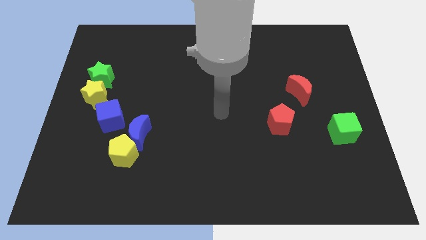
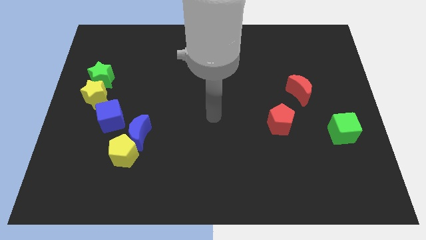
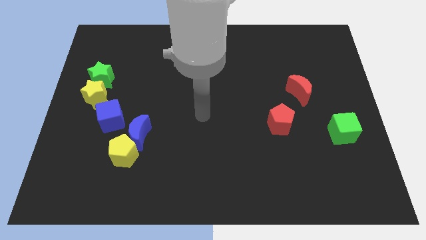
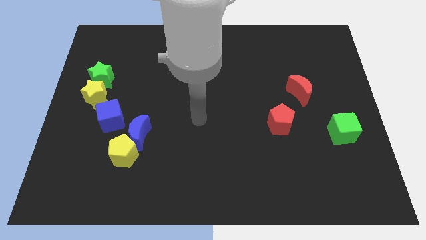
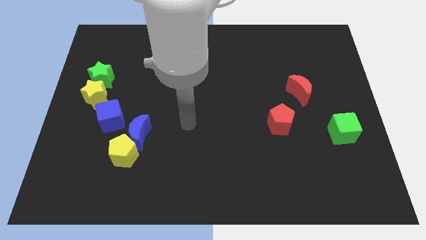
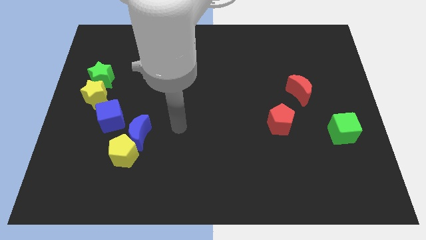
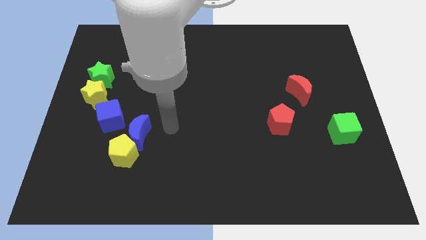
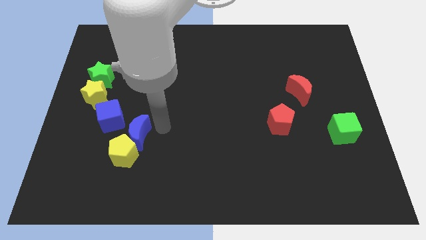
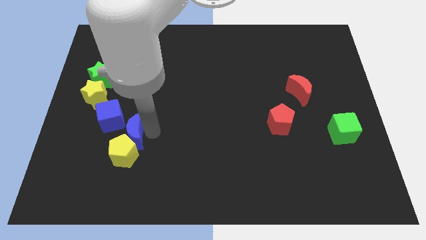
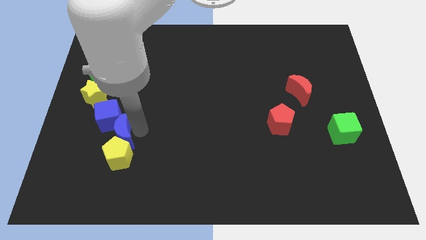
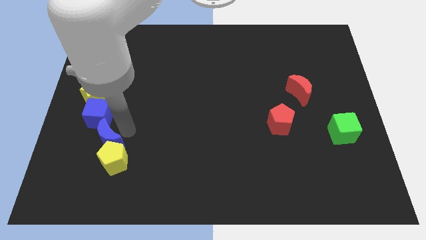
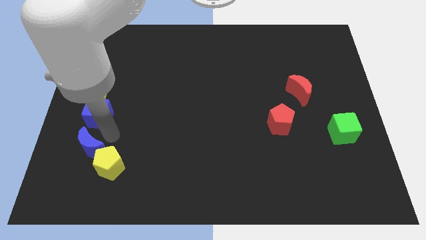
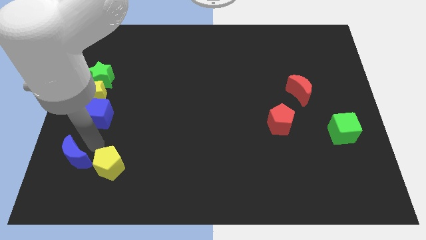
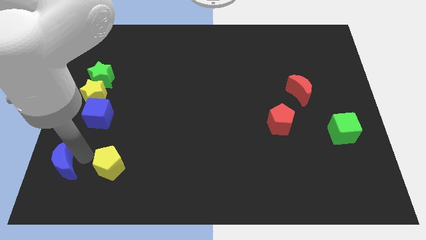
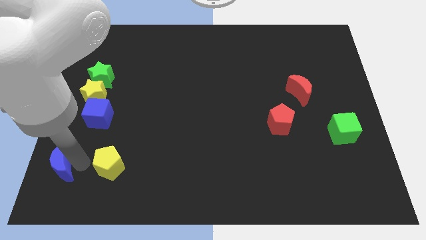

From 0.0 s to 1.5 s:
move the yellow pentagon away from the blue moon

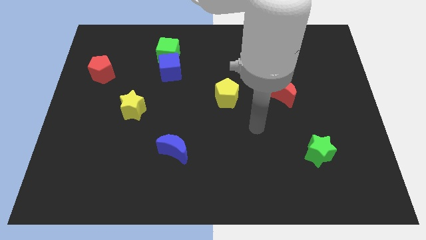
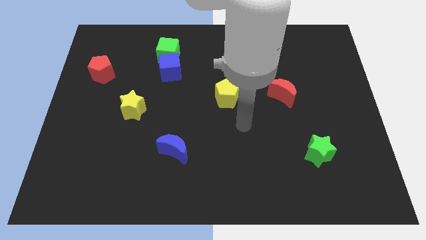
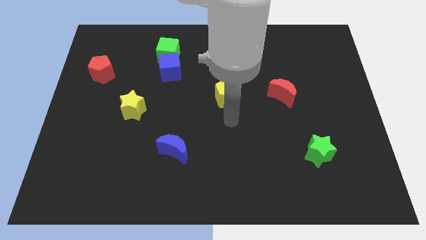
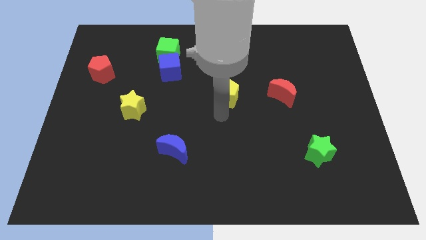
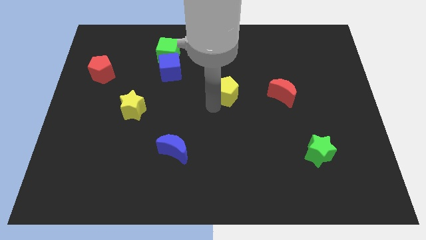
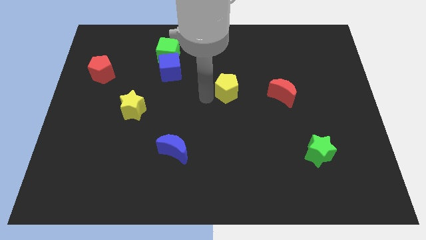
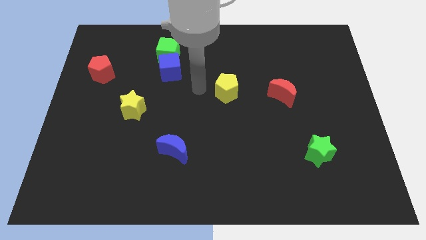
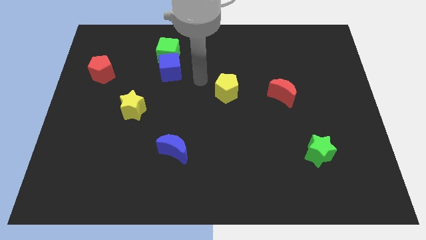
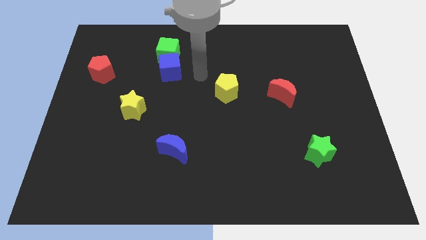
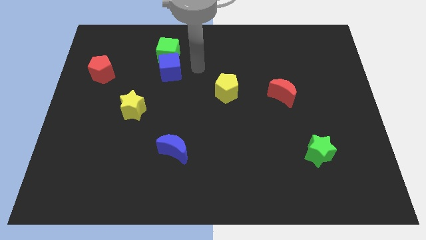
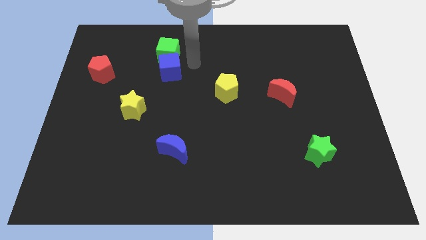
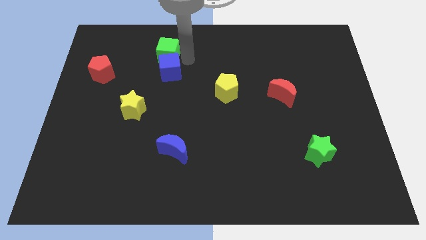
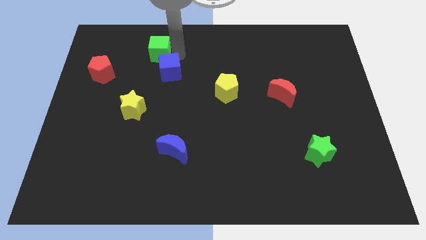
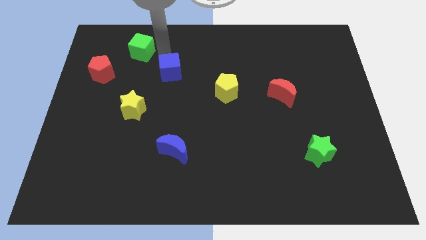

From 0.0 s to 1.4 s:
separate the blue cube from the green cube

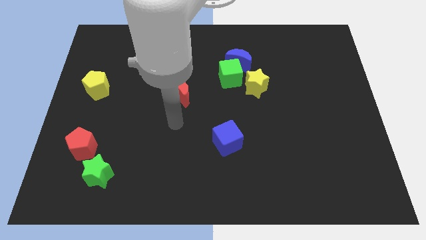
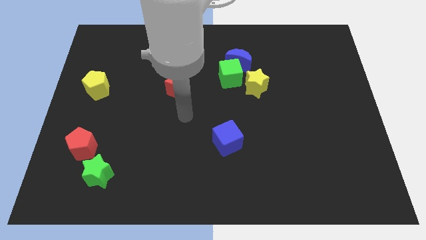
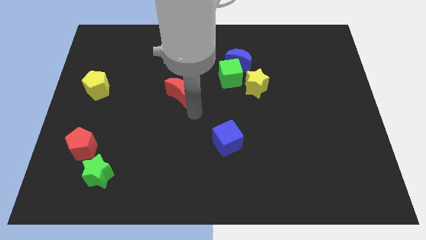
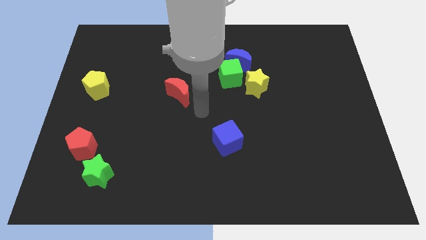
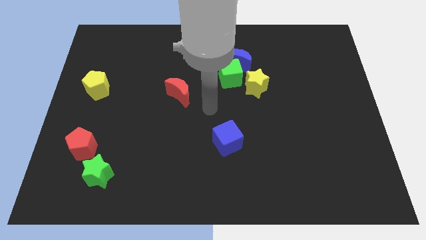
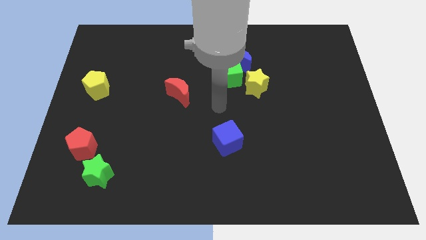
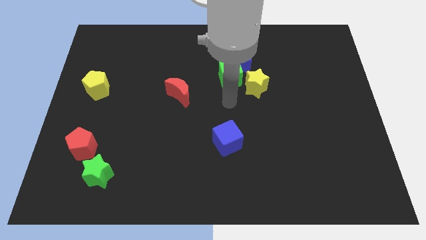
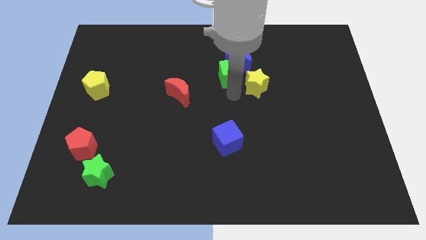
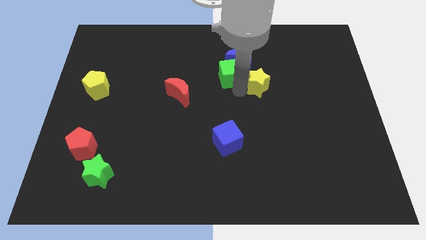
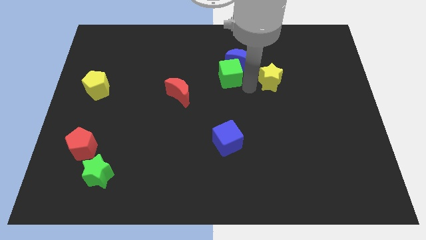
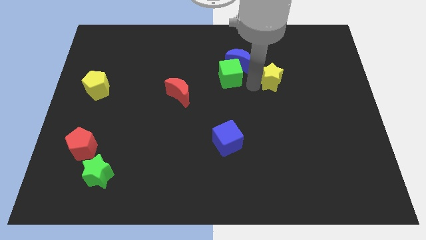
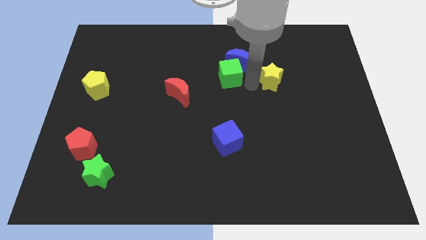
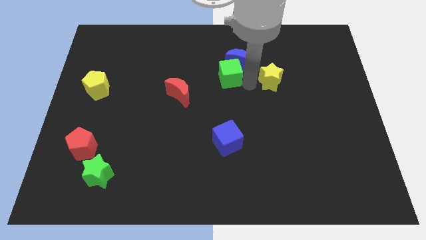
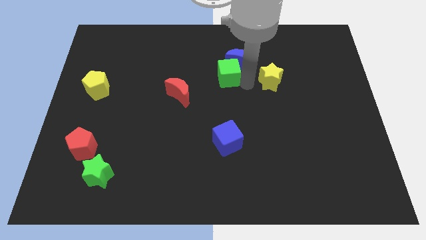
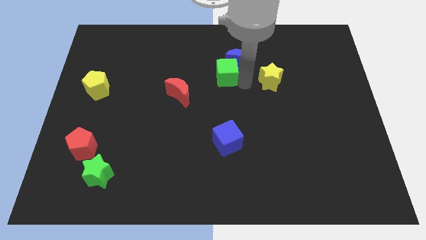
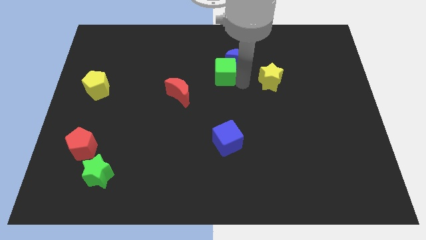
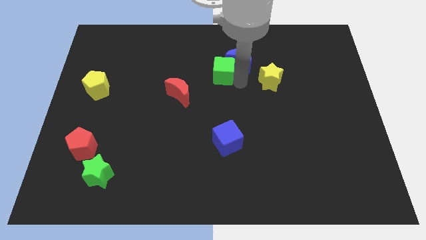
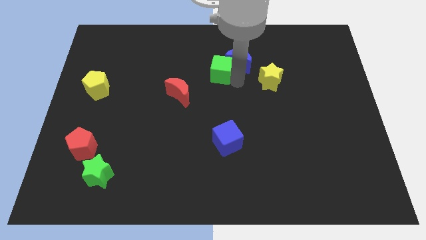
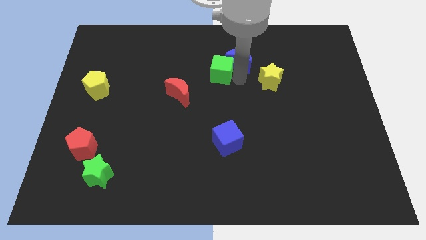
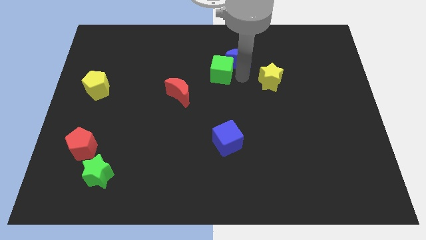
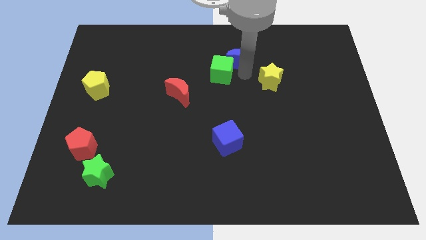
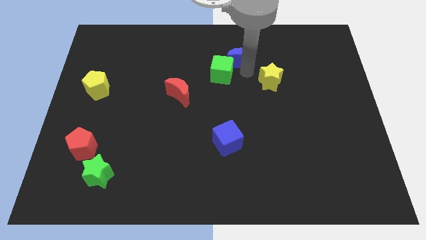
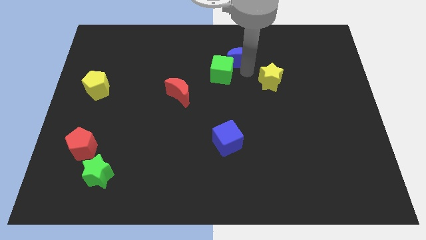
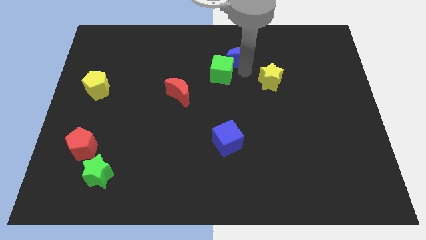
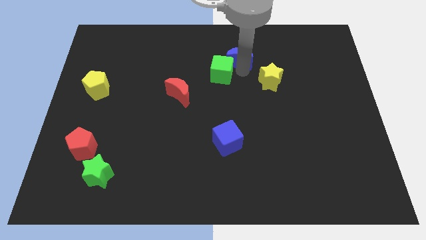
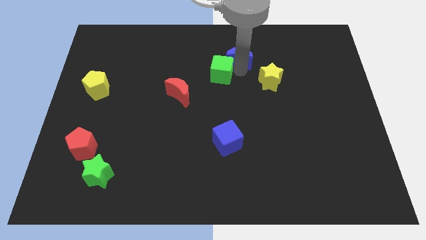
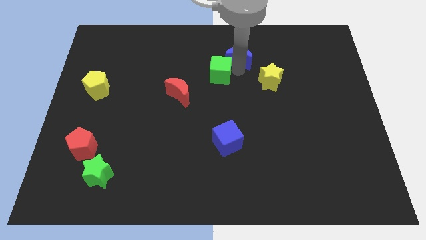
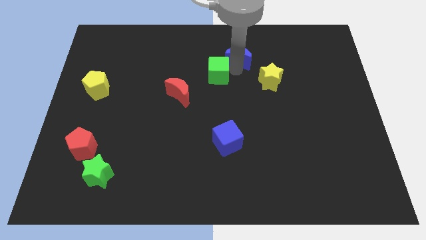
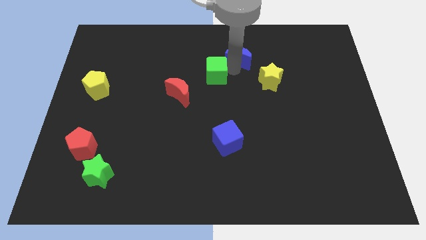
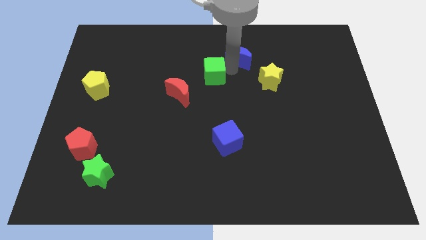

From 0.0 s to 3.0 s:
move the green cube away from the blue moon and yellow star

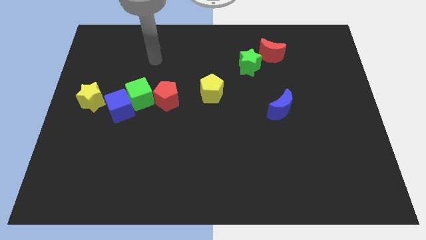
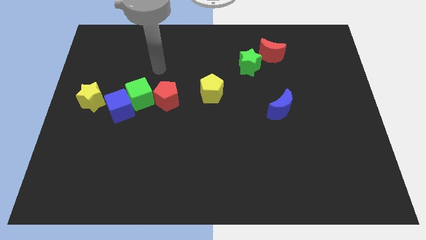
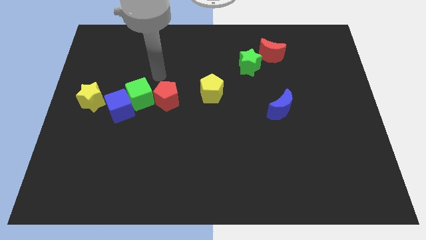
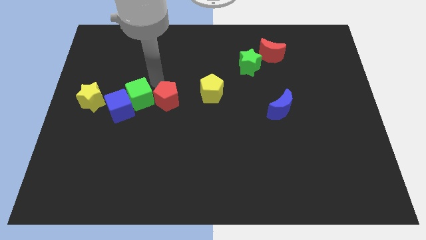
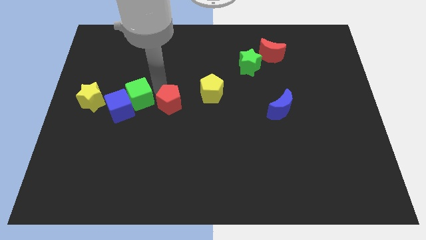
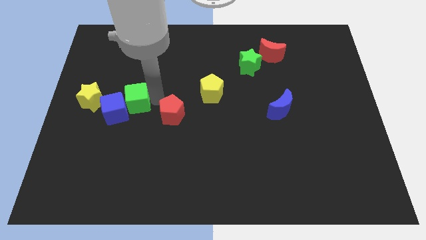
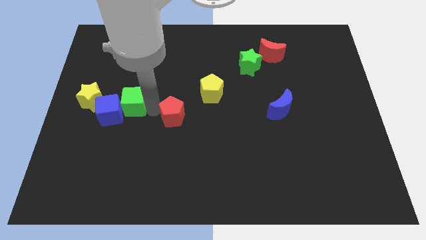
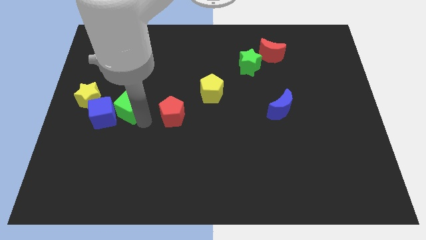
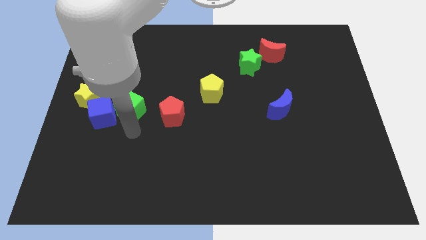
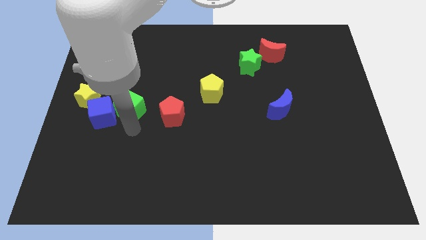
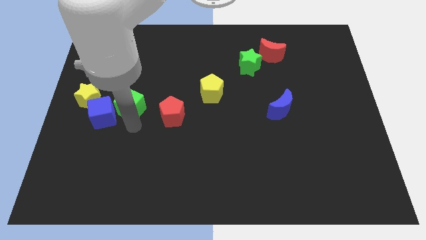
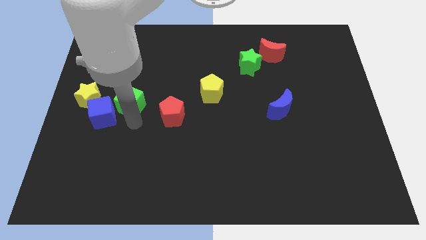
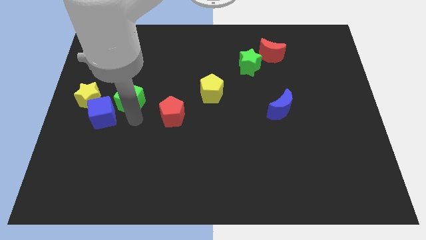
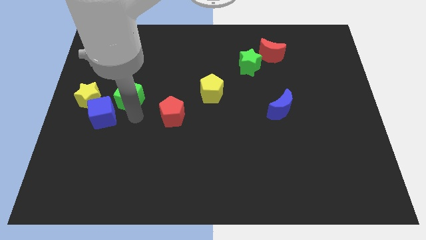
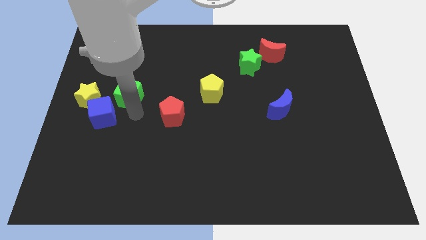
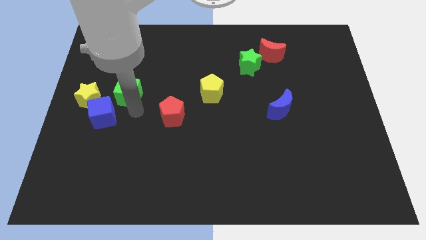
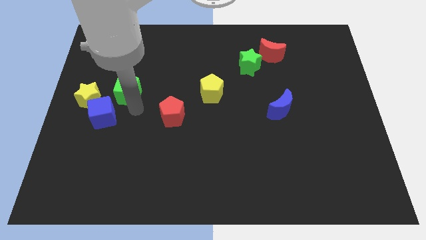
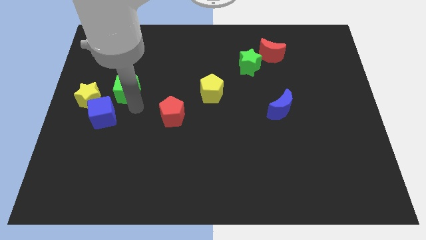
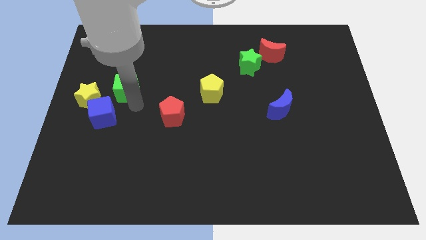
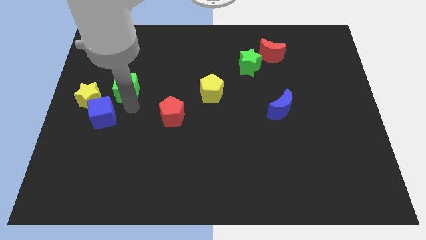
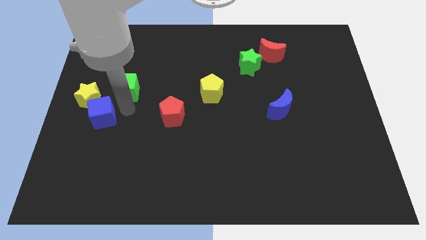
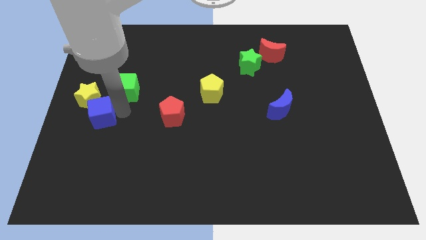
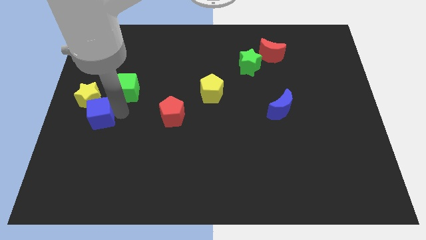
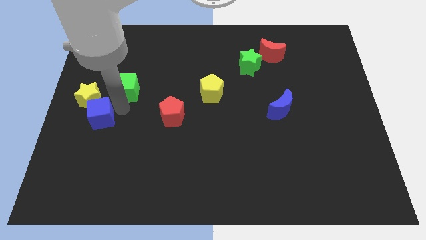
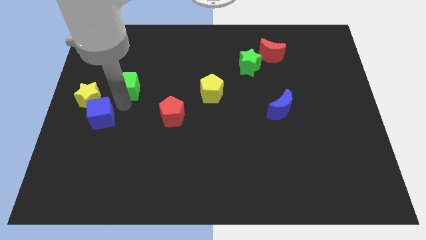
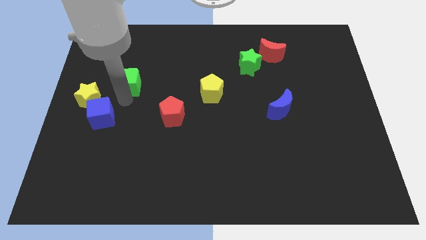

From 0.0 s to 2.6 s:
move the green cube away from the blue cube and red pentagon

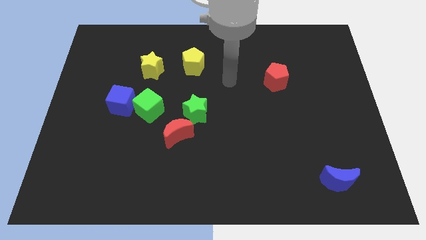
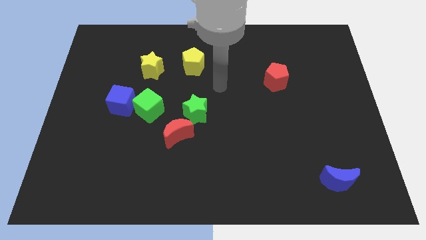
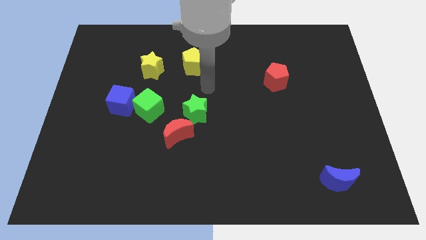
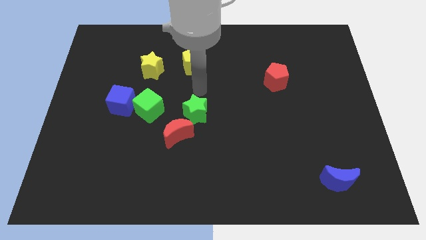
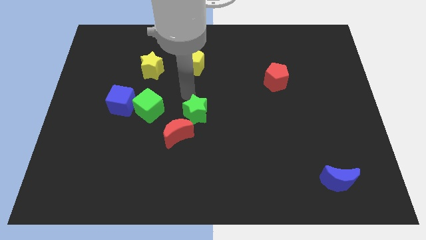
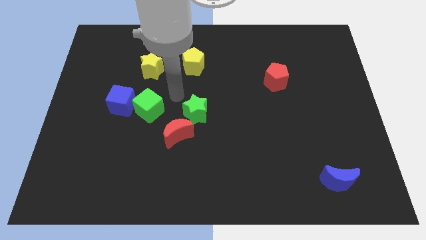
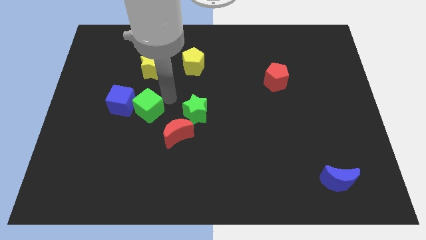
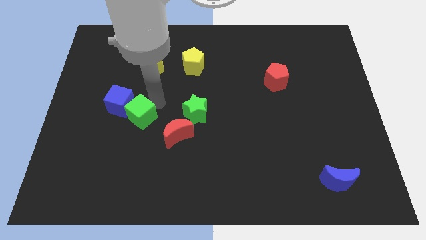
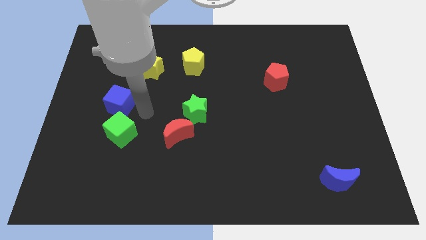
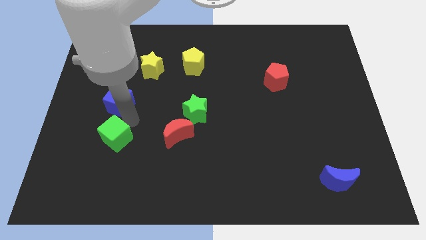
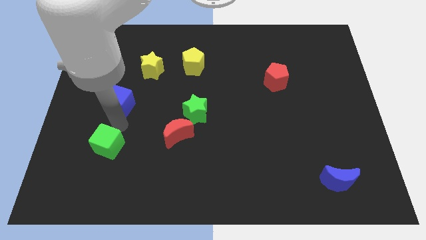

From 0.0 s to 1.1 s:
pull the blue cube apart from the green cube
